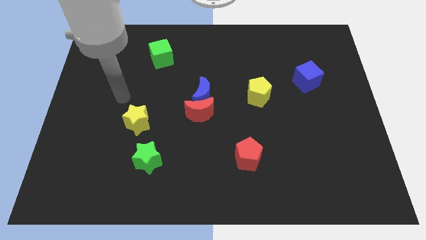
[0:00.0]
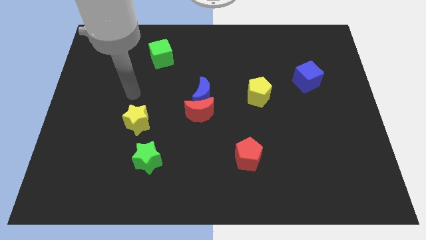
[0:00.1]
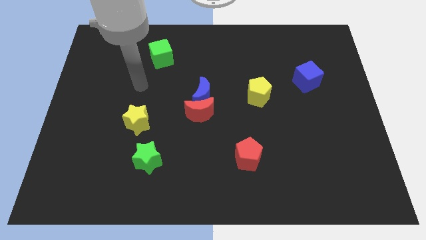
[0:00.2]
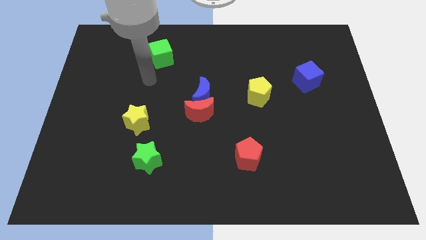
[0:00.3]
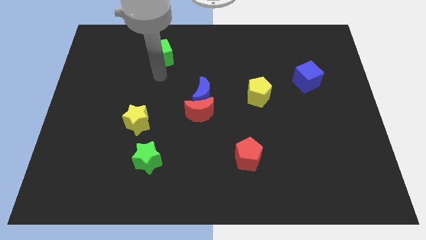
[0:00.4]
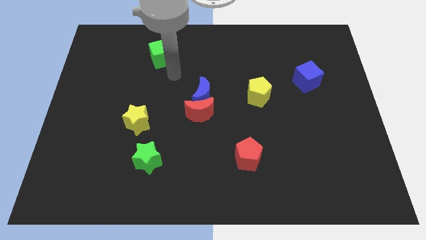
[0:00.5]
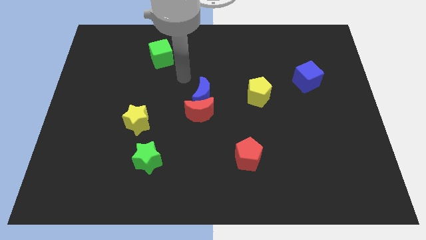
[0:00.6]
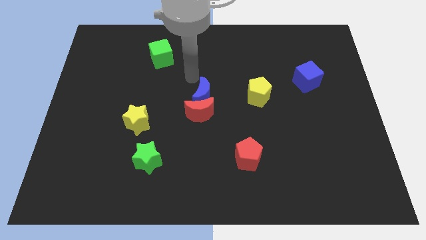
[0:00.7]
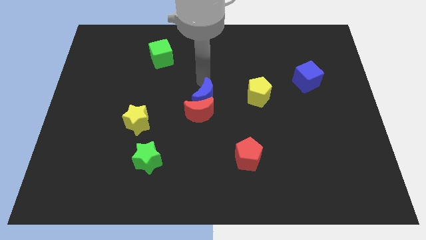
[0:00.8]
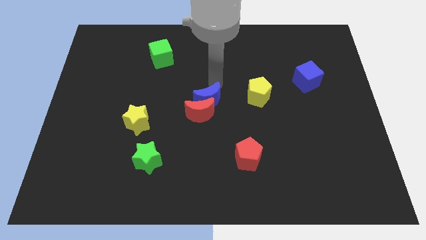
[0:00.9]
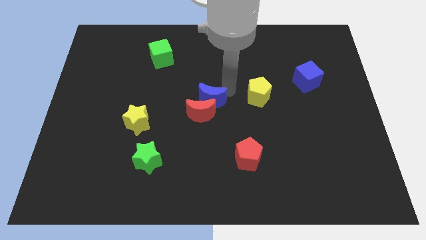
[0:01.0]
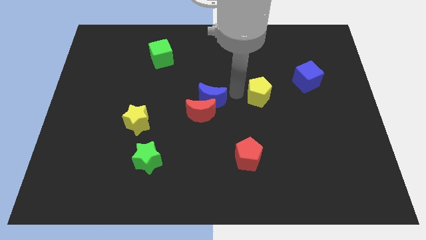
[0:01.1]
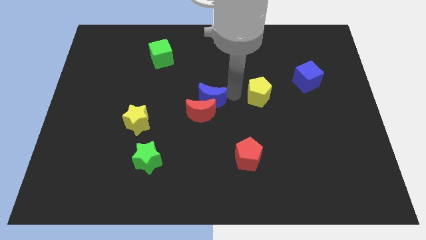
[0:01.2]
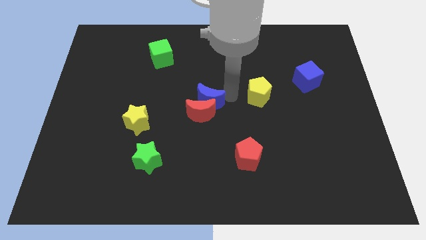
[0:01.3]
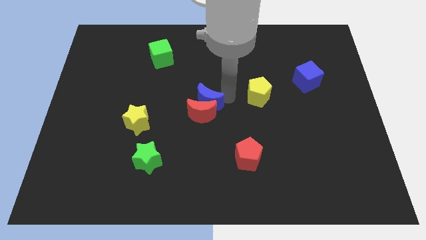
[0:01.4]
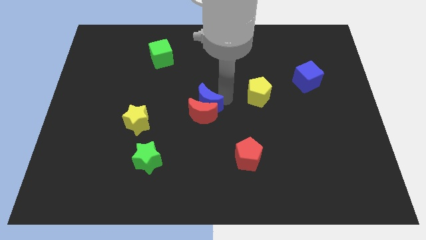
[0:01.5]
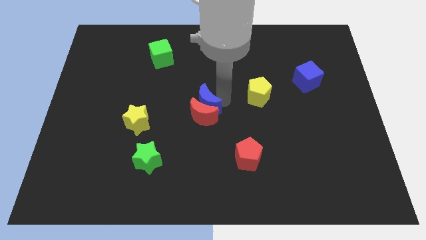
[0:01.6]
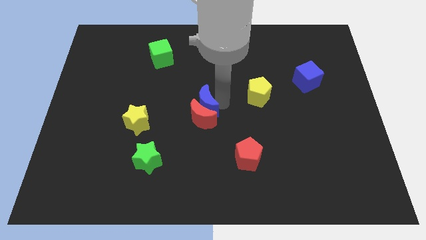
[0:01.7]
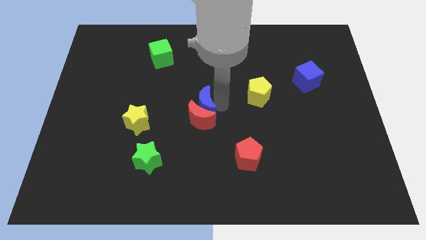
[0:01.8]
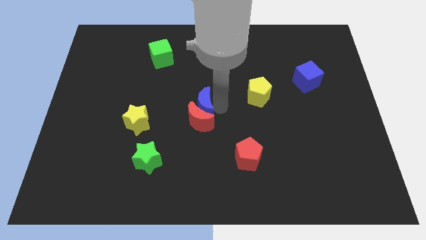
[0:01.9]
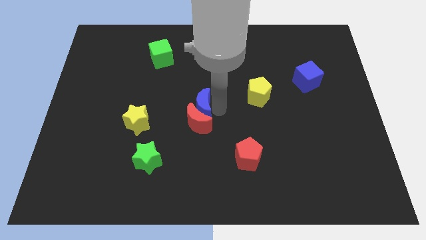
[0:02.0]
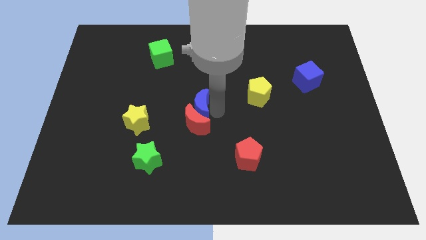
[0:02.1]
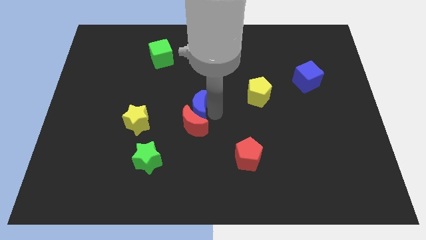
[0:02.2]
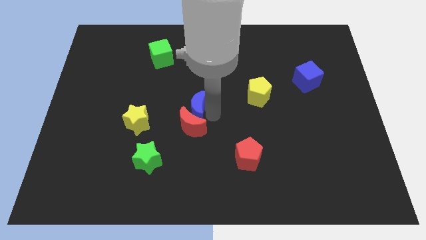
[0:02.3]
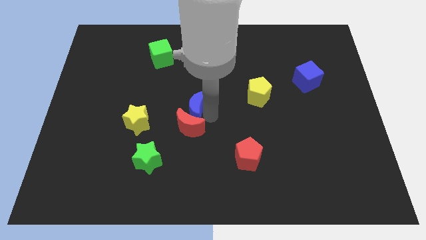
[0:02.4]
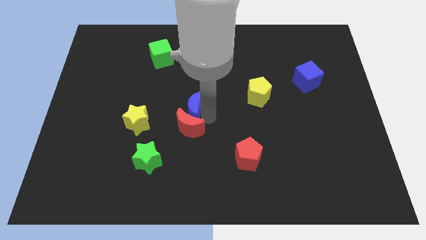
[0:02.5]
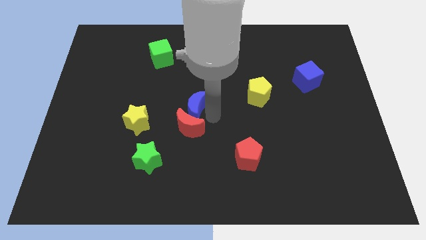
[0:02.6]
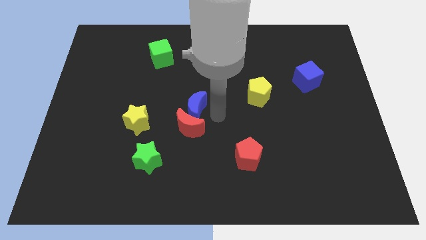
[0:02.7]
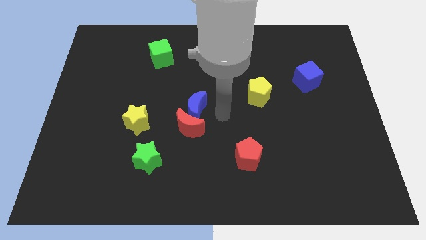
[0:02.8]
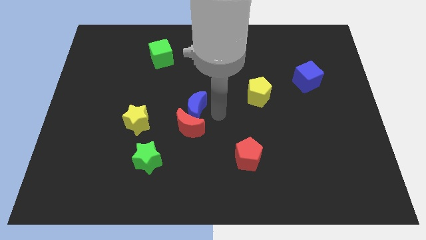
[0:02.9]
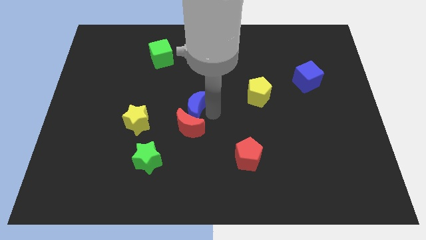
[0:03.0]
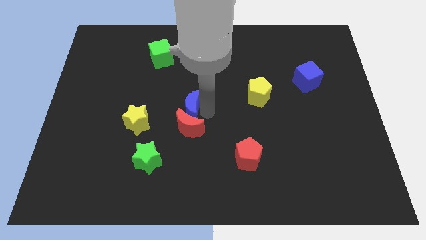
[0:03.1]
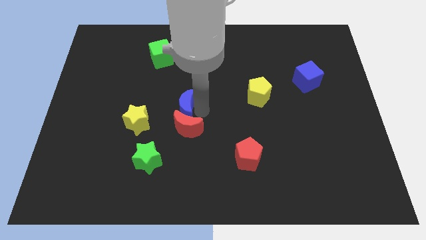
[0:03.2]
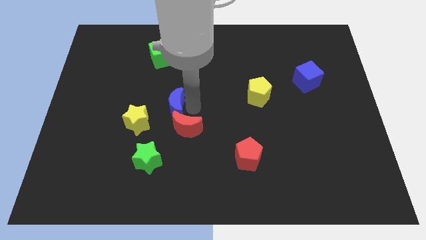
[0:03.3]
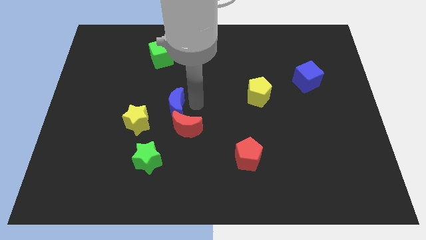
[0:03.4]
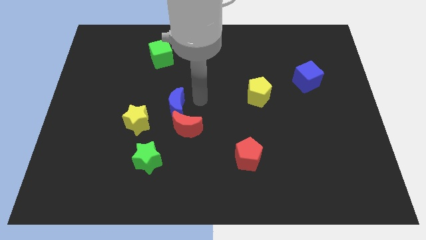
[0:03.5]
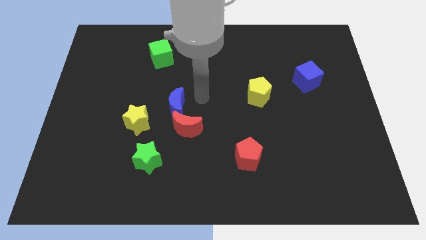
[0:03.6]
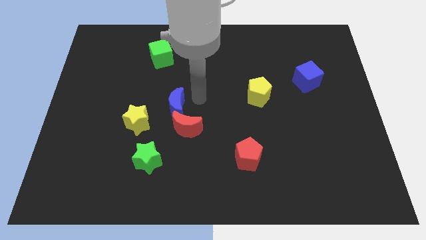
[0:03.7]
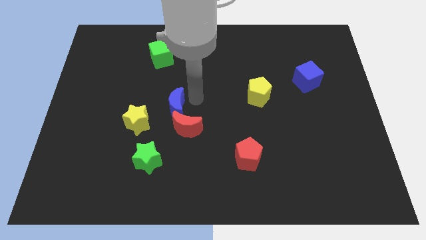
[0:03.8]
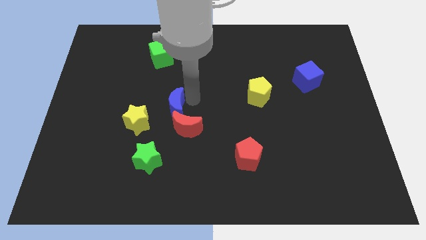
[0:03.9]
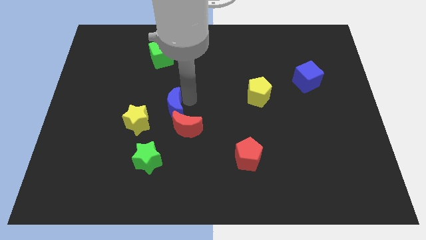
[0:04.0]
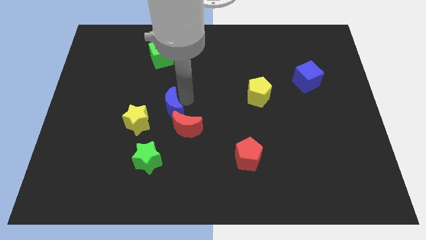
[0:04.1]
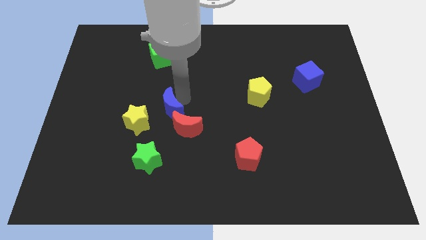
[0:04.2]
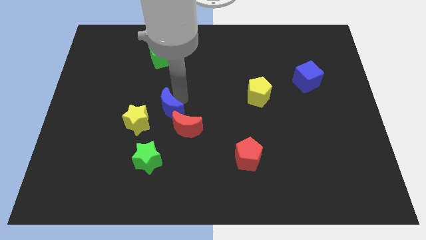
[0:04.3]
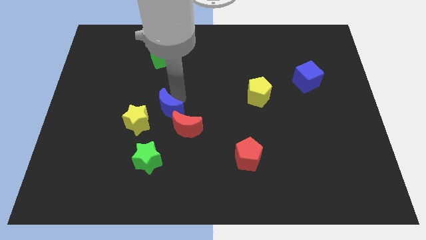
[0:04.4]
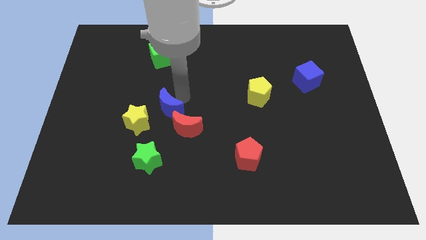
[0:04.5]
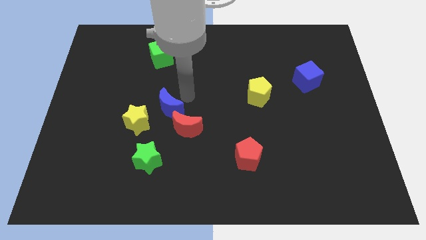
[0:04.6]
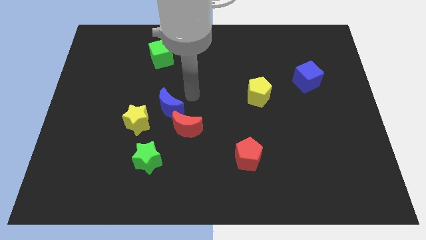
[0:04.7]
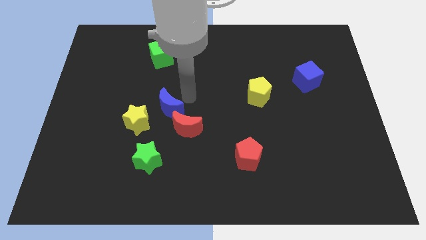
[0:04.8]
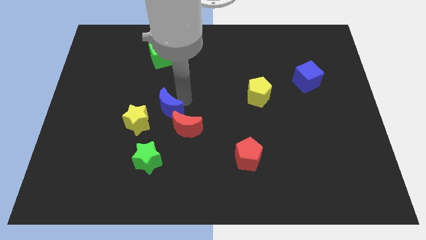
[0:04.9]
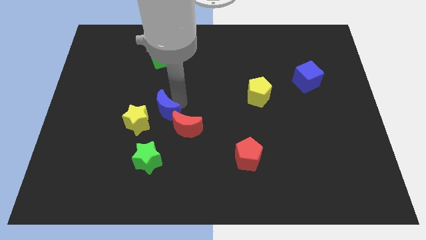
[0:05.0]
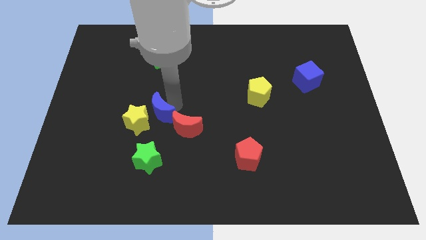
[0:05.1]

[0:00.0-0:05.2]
push the blue moon close to the yellow star

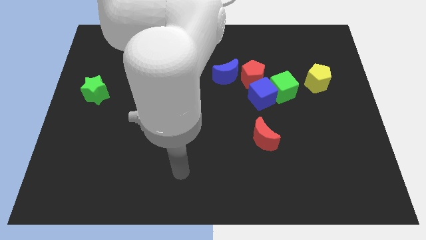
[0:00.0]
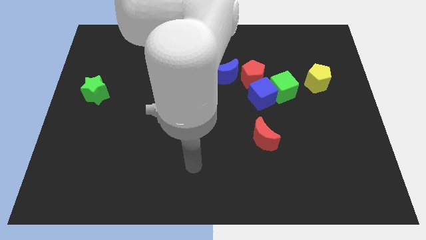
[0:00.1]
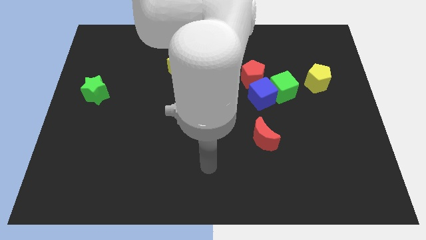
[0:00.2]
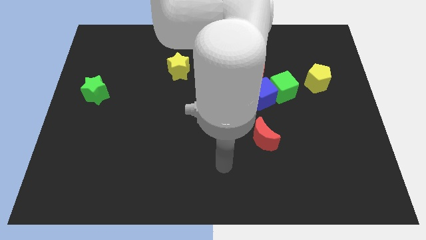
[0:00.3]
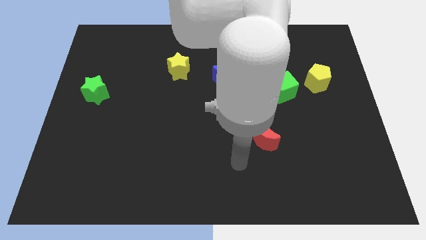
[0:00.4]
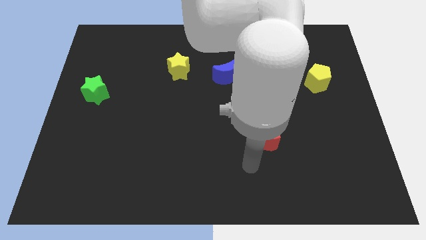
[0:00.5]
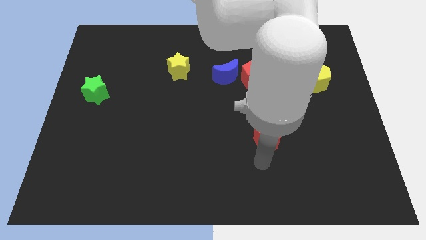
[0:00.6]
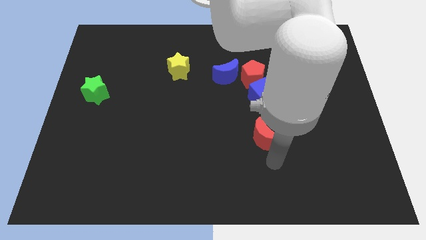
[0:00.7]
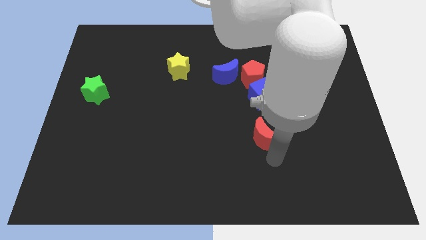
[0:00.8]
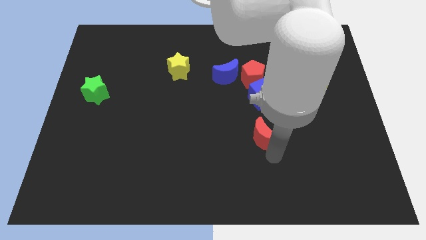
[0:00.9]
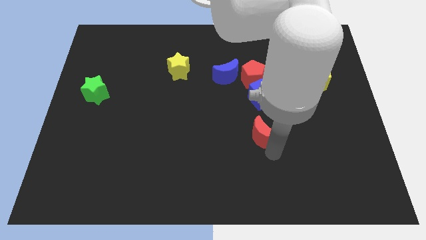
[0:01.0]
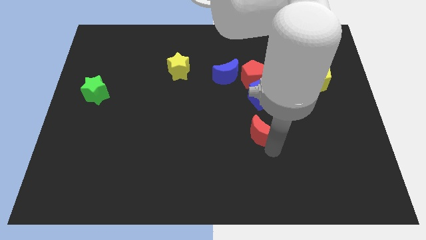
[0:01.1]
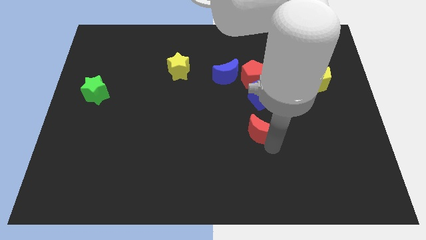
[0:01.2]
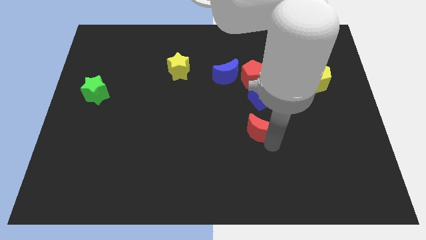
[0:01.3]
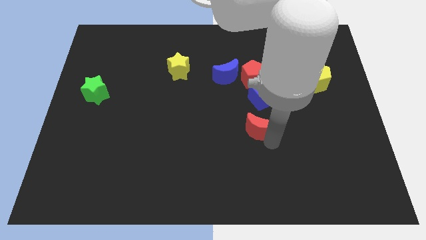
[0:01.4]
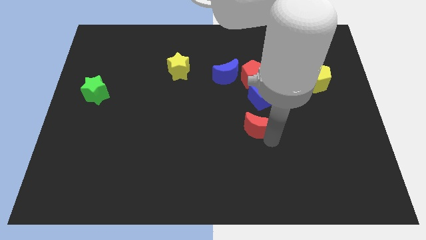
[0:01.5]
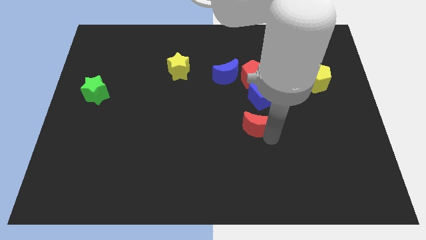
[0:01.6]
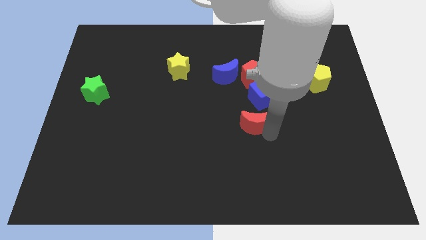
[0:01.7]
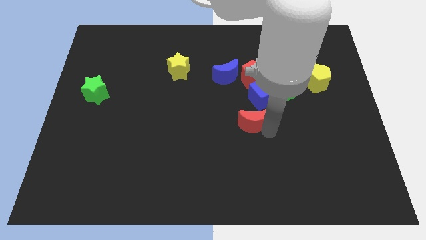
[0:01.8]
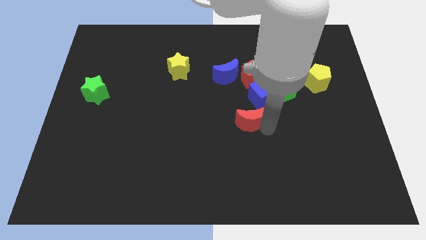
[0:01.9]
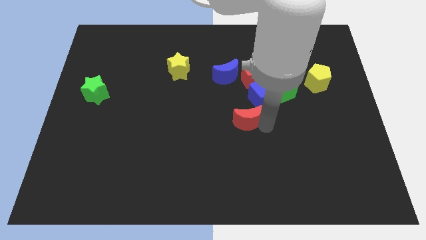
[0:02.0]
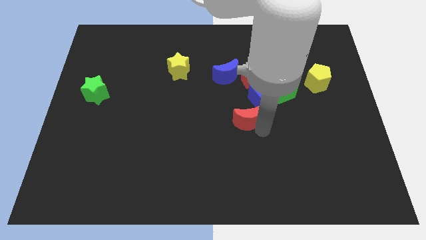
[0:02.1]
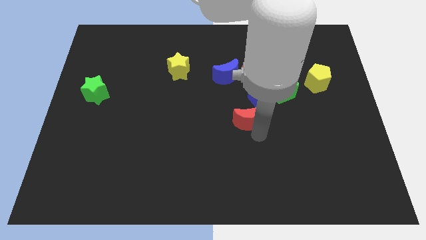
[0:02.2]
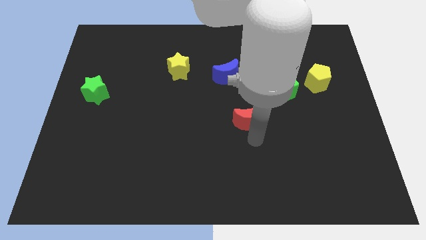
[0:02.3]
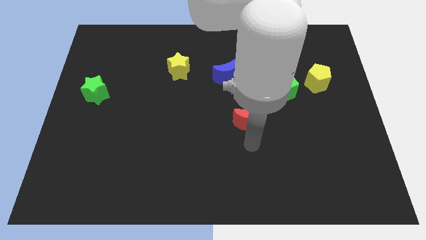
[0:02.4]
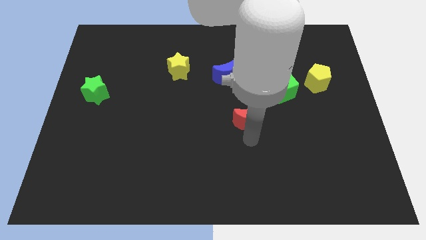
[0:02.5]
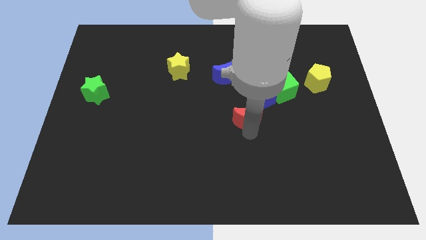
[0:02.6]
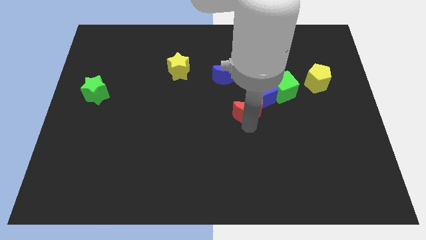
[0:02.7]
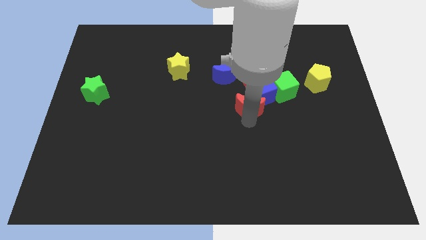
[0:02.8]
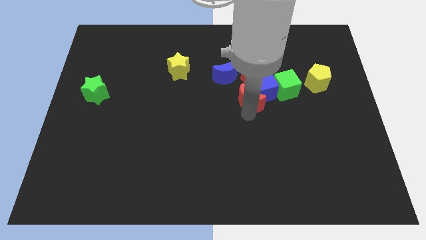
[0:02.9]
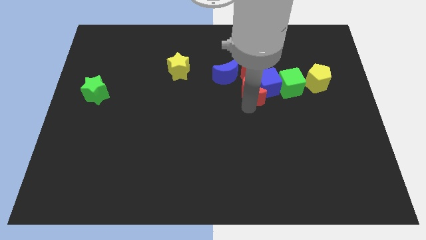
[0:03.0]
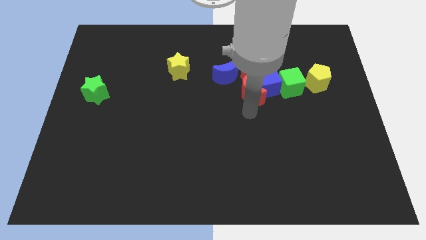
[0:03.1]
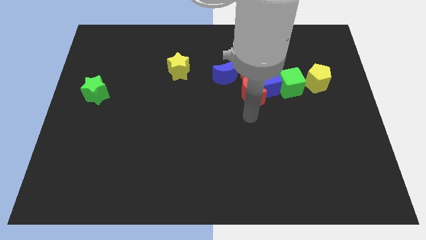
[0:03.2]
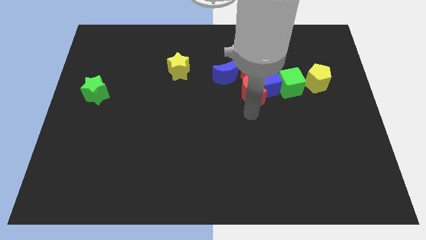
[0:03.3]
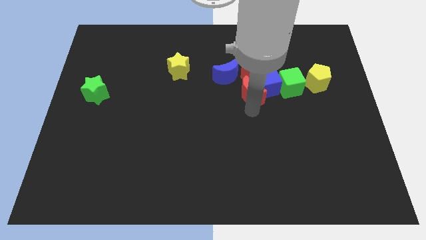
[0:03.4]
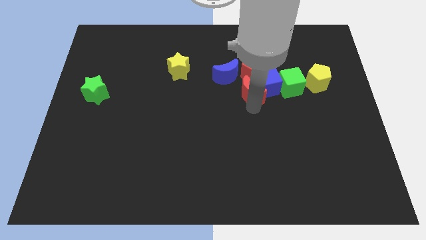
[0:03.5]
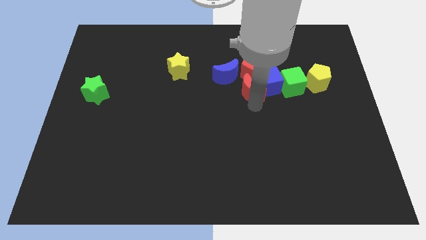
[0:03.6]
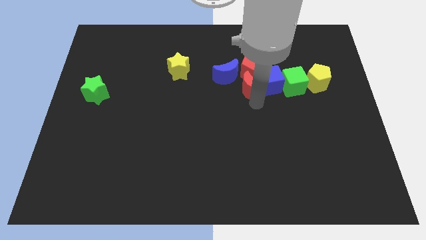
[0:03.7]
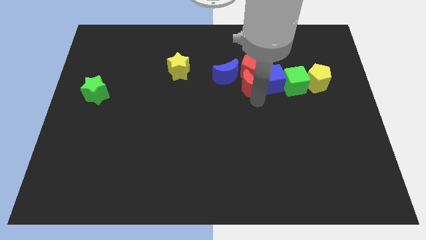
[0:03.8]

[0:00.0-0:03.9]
move the red moon to the red pentagon
